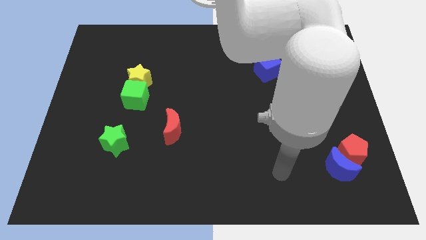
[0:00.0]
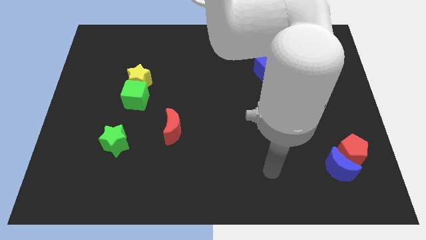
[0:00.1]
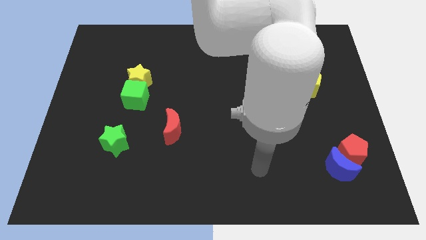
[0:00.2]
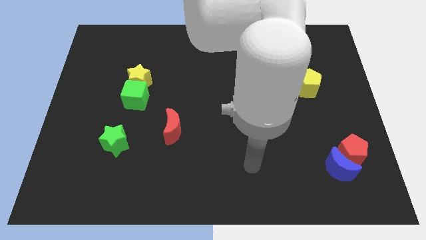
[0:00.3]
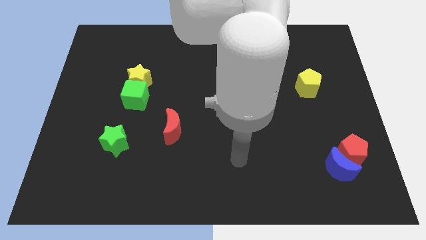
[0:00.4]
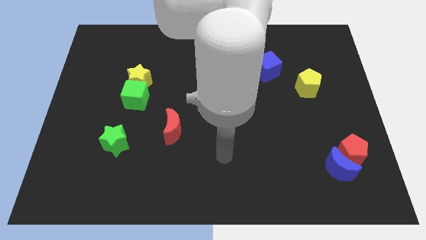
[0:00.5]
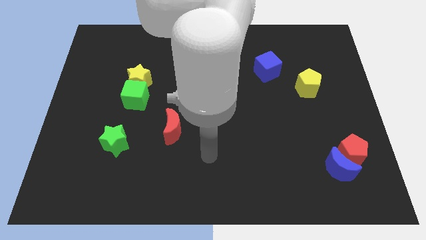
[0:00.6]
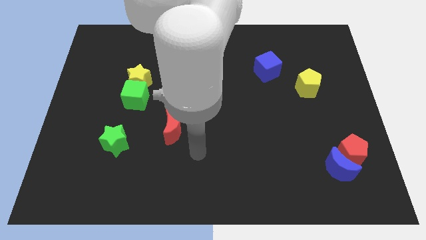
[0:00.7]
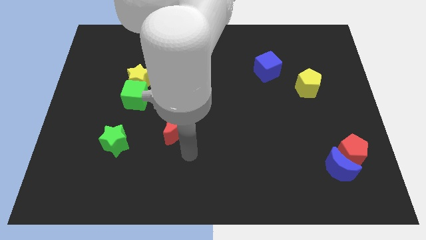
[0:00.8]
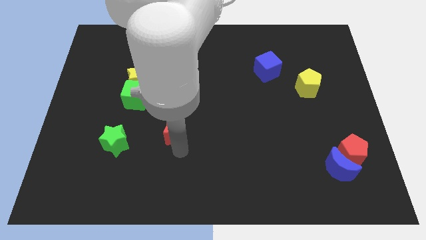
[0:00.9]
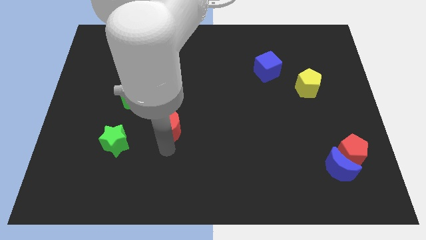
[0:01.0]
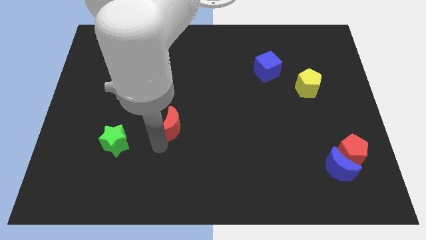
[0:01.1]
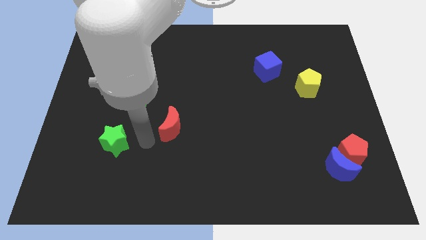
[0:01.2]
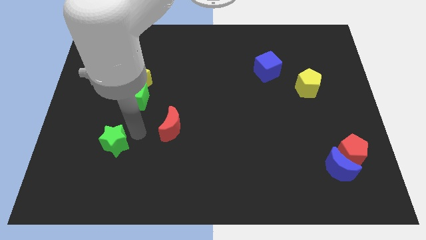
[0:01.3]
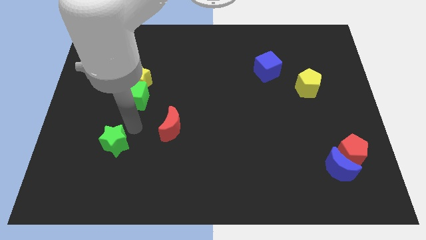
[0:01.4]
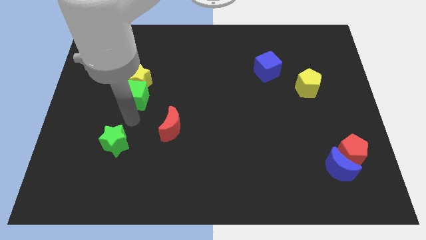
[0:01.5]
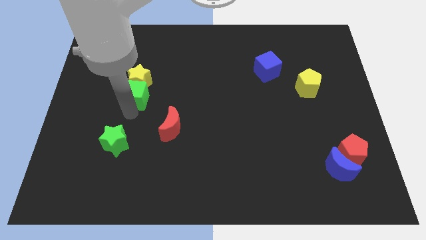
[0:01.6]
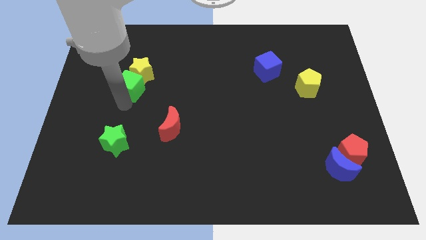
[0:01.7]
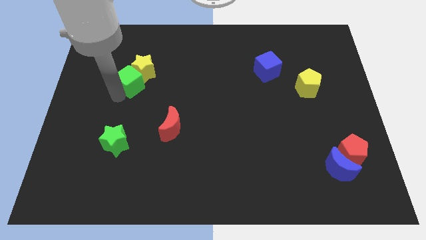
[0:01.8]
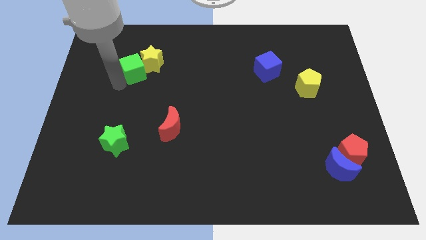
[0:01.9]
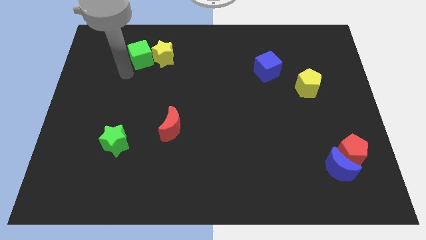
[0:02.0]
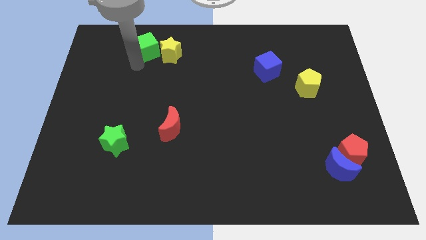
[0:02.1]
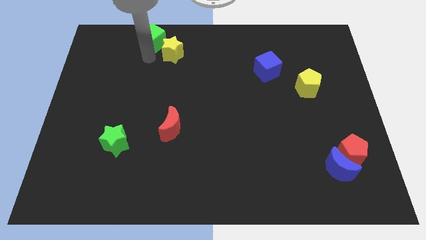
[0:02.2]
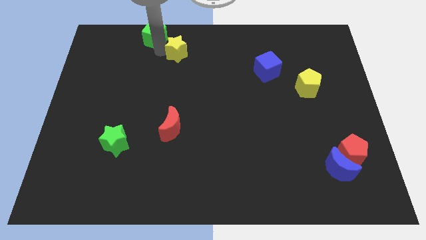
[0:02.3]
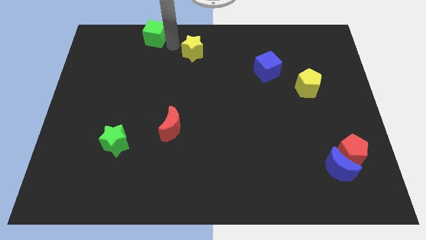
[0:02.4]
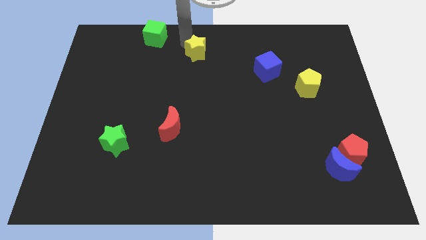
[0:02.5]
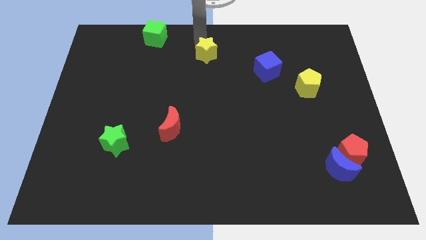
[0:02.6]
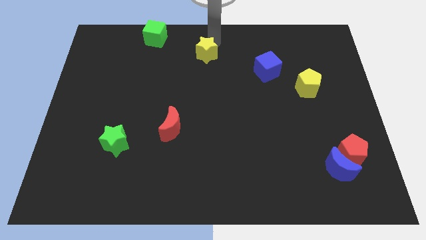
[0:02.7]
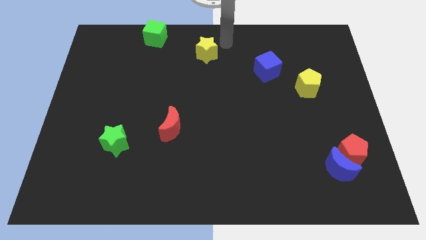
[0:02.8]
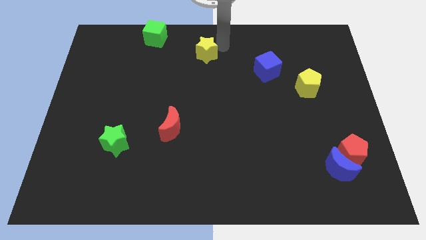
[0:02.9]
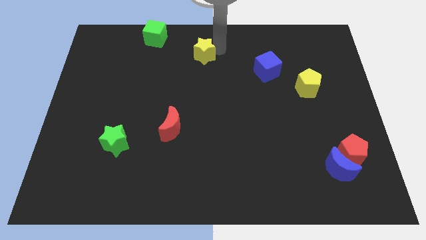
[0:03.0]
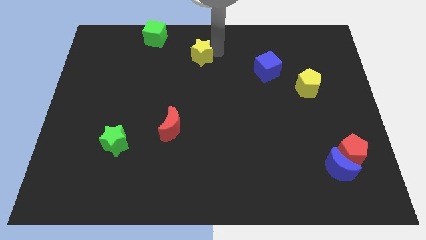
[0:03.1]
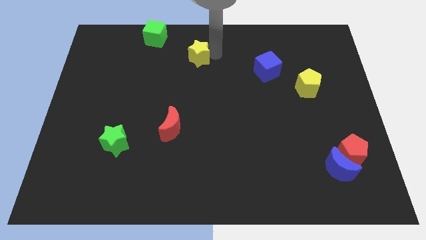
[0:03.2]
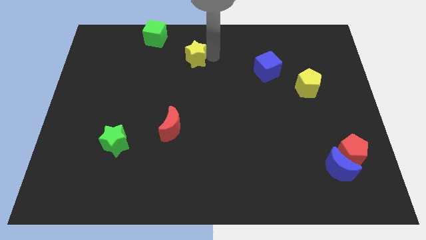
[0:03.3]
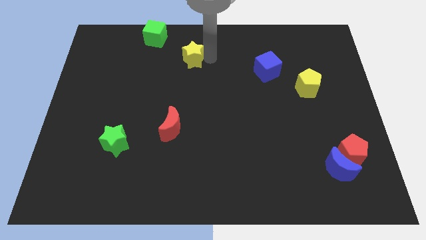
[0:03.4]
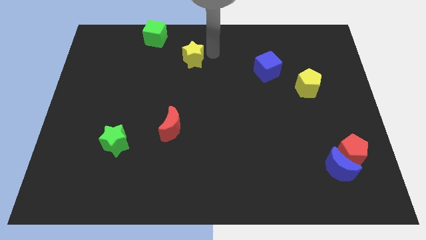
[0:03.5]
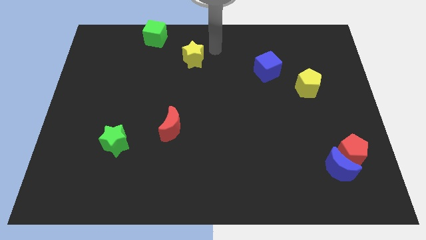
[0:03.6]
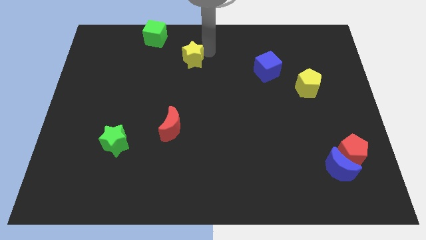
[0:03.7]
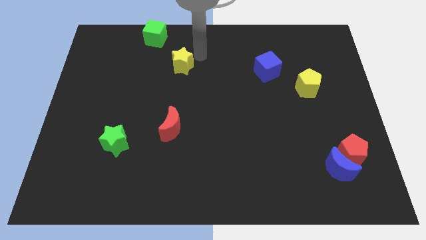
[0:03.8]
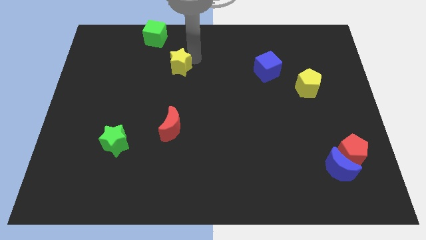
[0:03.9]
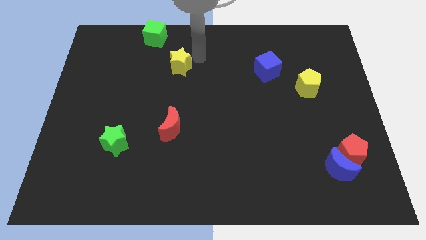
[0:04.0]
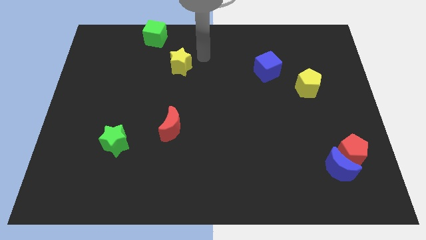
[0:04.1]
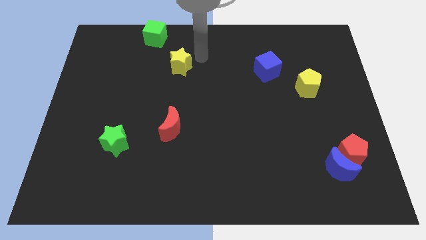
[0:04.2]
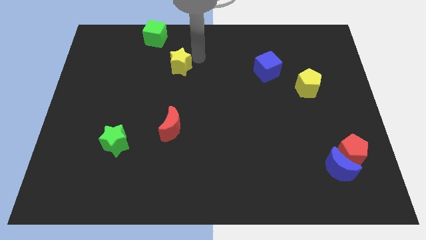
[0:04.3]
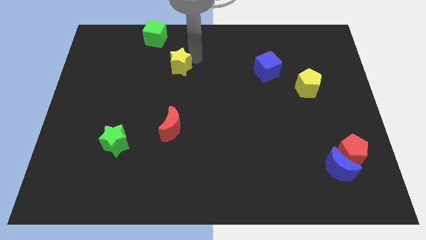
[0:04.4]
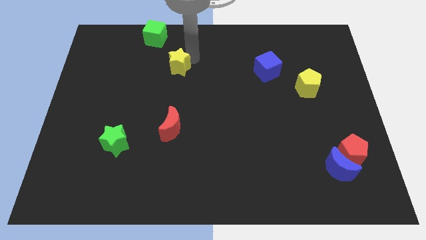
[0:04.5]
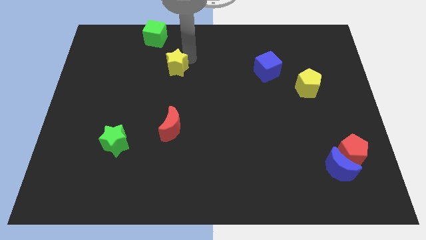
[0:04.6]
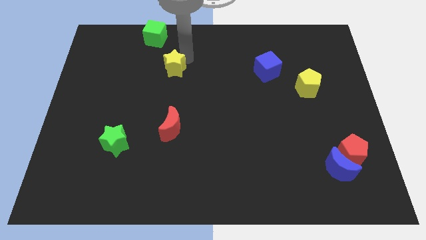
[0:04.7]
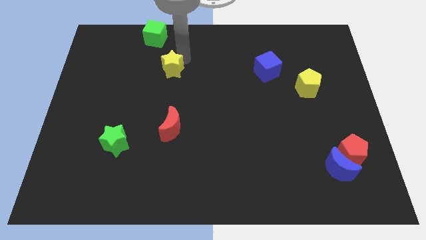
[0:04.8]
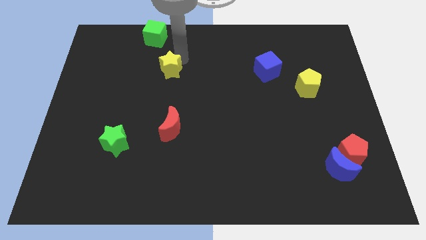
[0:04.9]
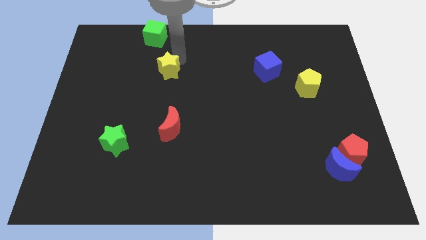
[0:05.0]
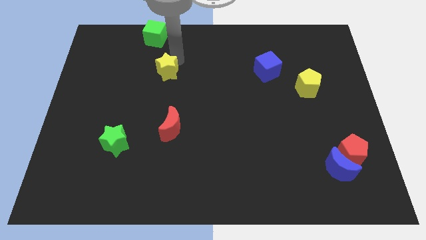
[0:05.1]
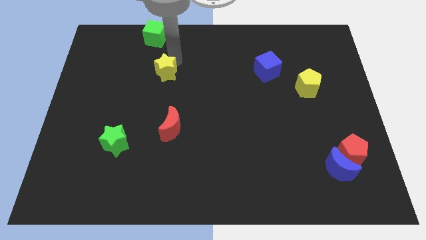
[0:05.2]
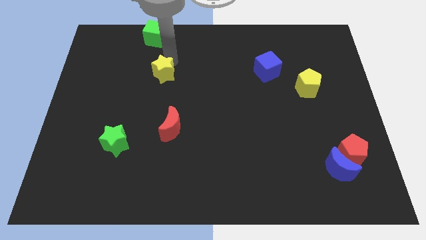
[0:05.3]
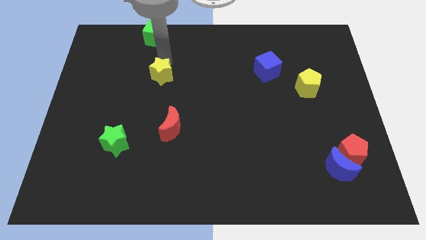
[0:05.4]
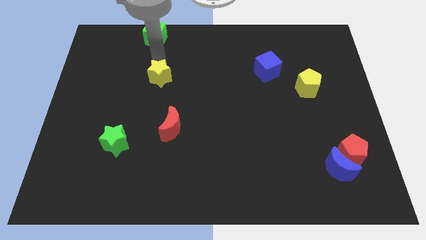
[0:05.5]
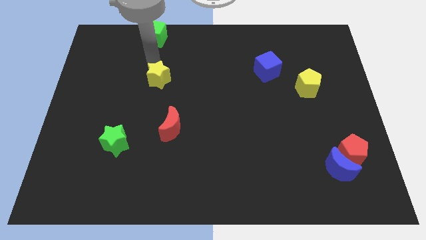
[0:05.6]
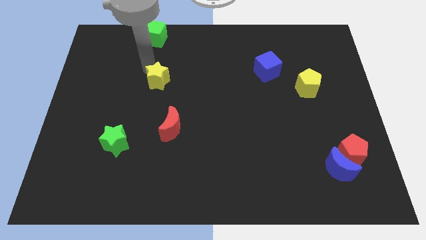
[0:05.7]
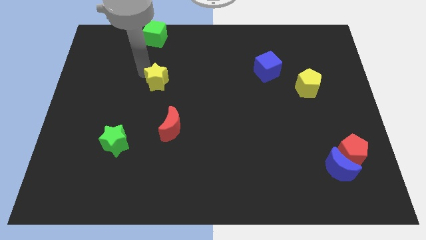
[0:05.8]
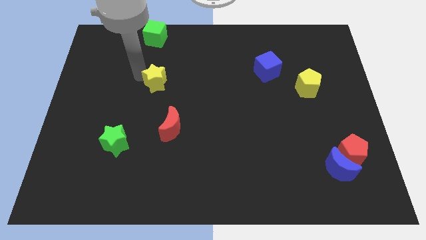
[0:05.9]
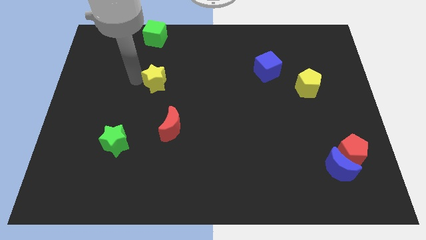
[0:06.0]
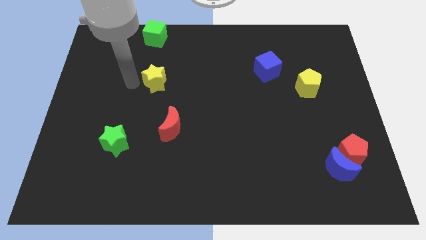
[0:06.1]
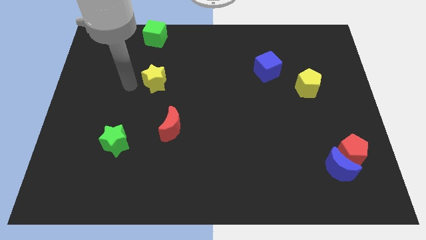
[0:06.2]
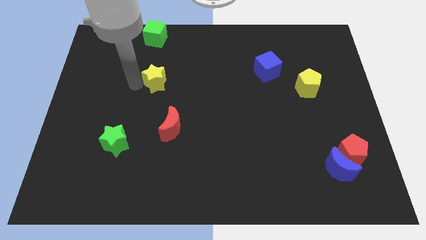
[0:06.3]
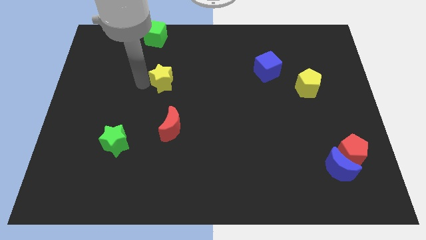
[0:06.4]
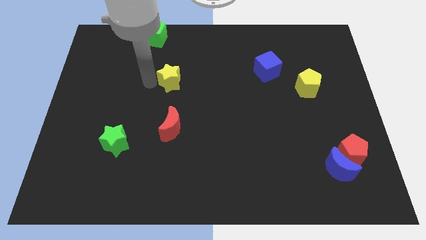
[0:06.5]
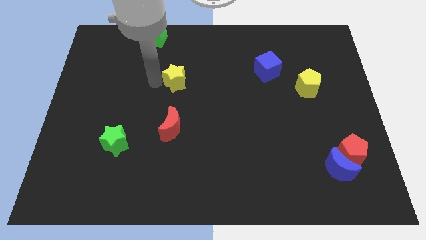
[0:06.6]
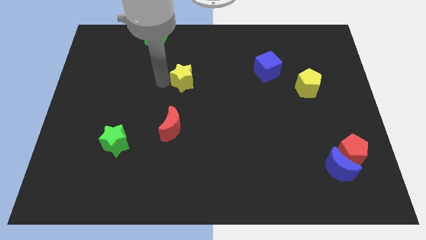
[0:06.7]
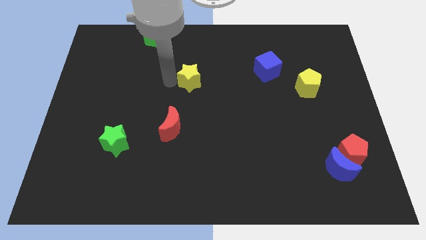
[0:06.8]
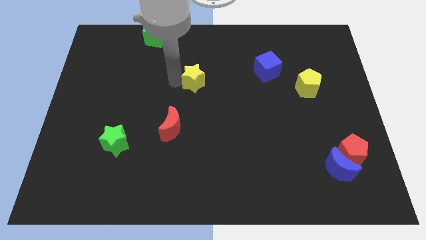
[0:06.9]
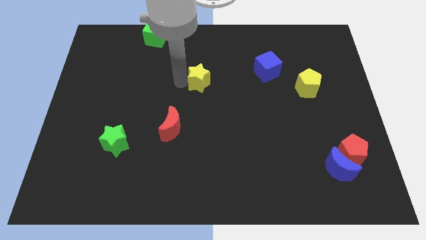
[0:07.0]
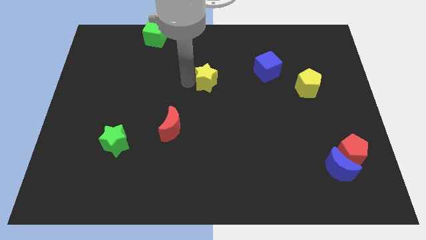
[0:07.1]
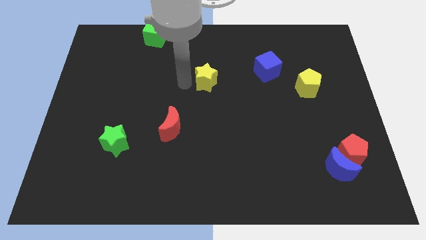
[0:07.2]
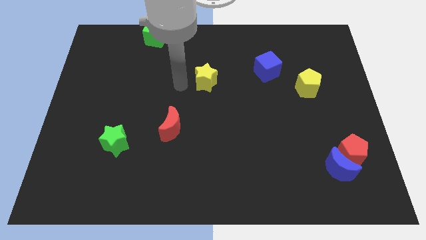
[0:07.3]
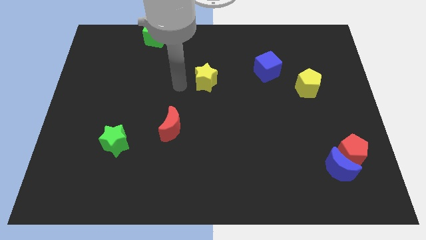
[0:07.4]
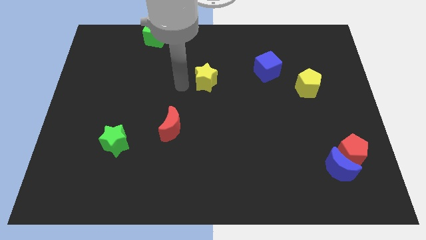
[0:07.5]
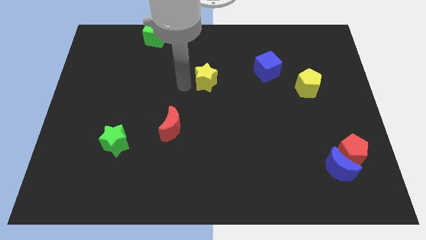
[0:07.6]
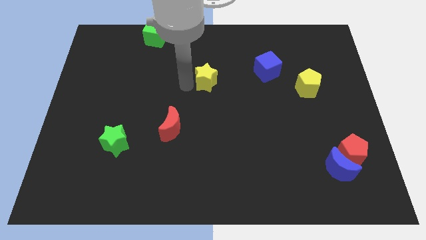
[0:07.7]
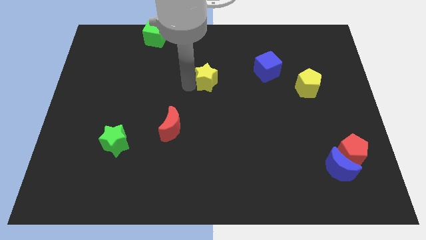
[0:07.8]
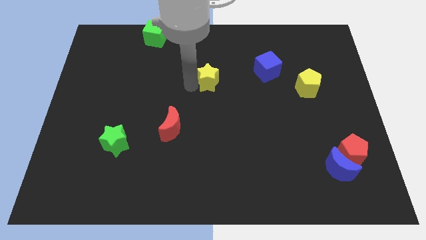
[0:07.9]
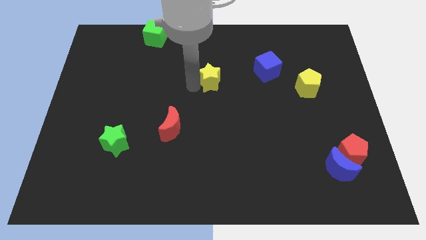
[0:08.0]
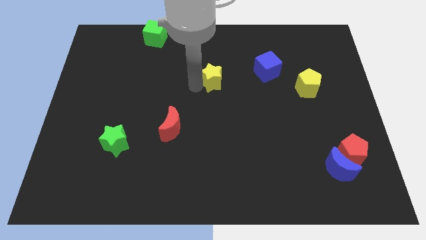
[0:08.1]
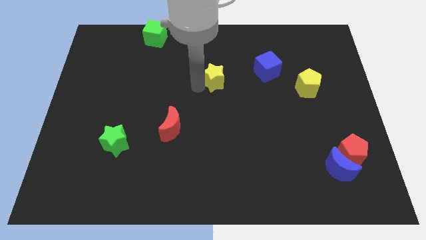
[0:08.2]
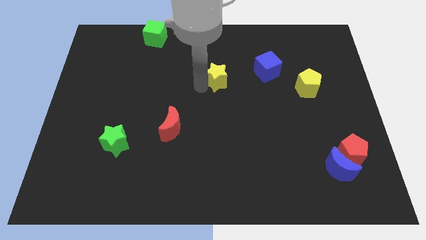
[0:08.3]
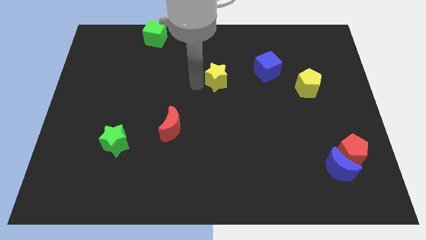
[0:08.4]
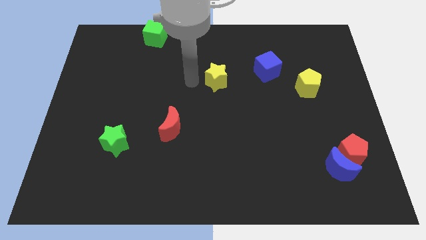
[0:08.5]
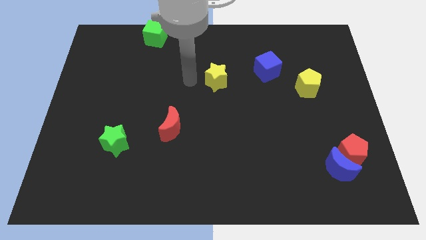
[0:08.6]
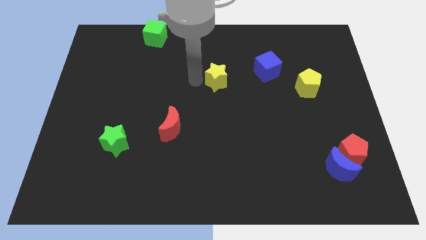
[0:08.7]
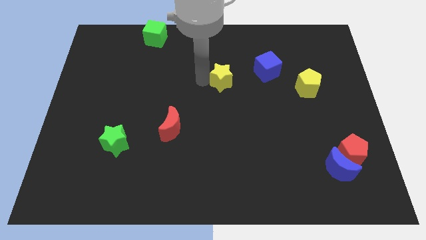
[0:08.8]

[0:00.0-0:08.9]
slide the yellow star right
